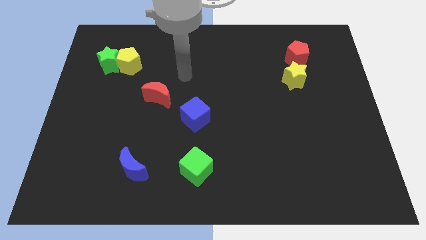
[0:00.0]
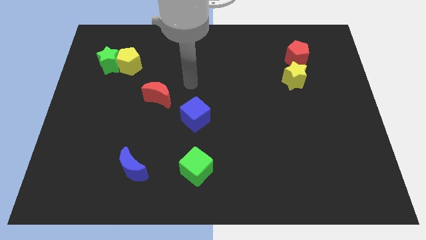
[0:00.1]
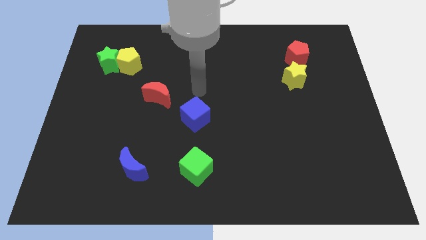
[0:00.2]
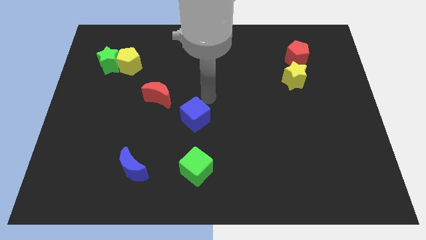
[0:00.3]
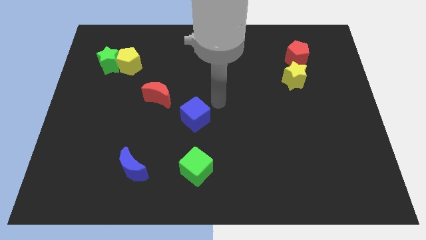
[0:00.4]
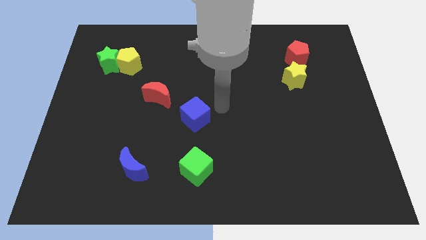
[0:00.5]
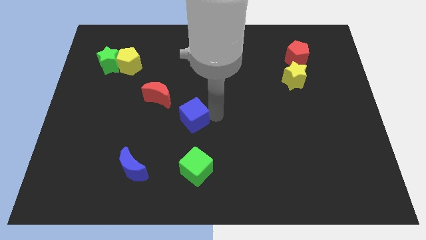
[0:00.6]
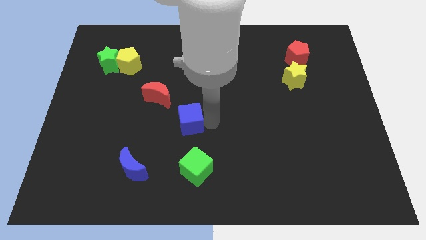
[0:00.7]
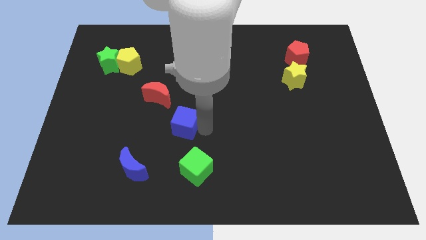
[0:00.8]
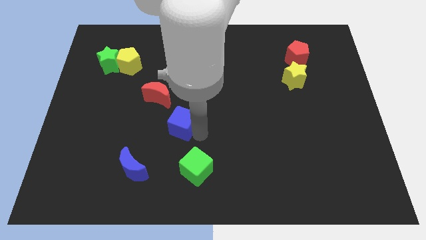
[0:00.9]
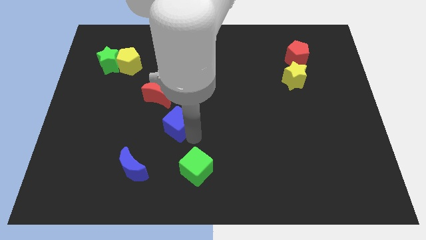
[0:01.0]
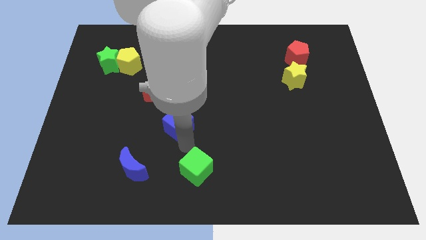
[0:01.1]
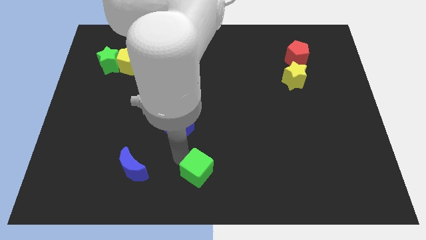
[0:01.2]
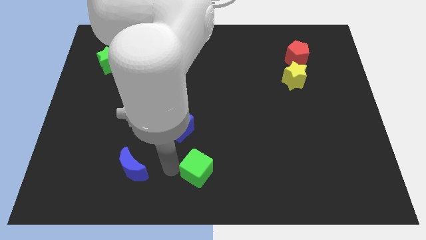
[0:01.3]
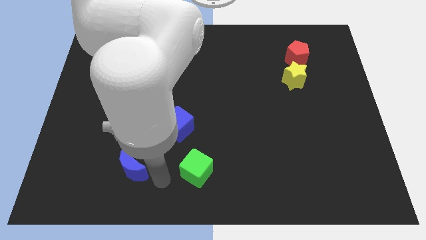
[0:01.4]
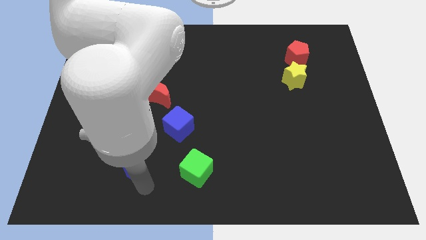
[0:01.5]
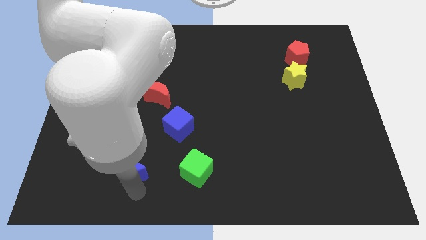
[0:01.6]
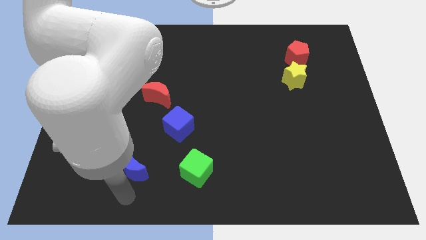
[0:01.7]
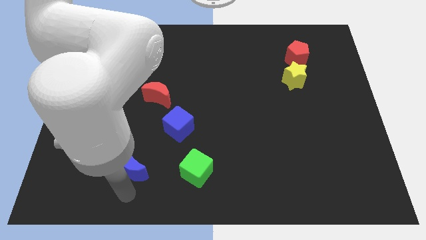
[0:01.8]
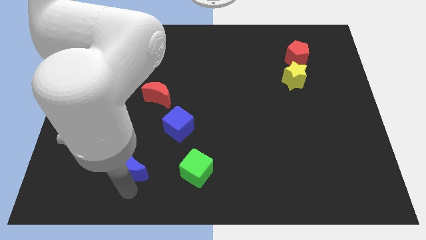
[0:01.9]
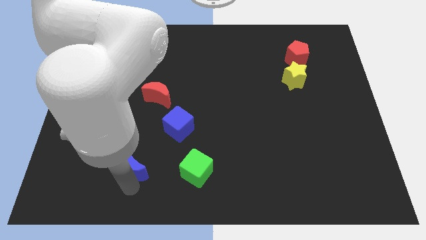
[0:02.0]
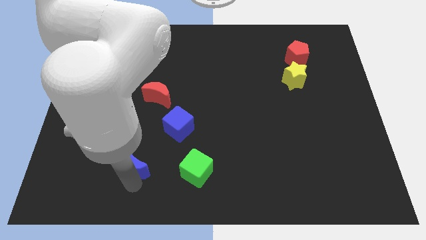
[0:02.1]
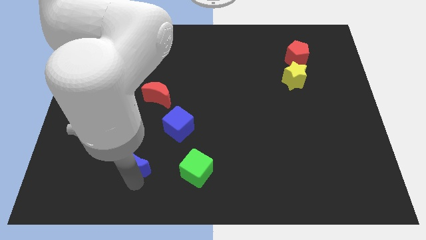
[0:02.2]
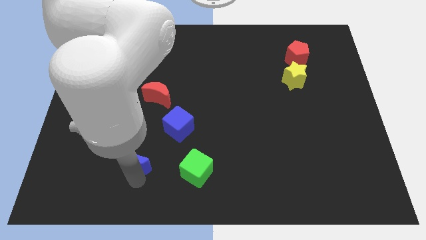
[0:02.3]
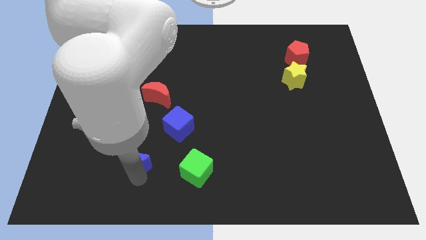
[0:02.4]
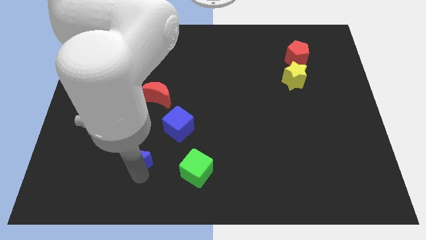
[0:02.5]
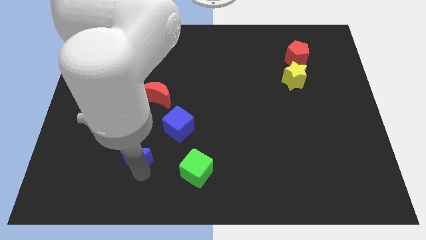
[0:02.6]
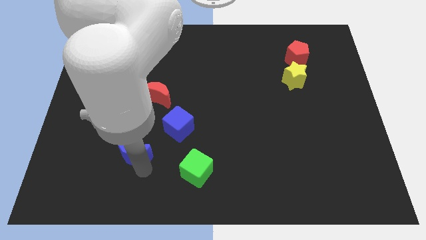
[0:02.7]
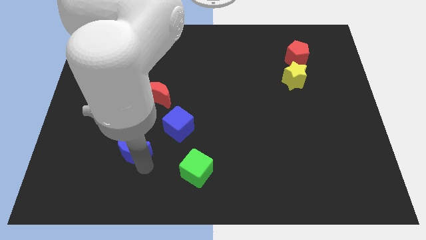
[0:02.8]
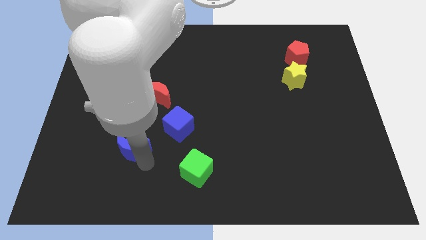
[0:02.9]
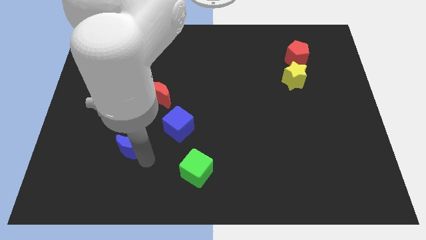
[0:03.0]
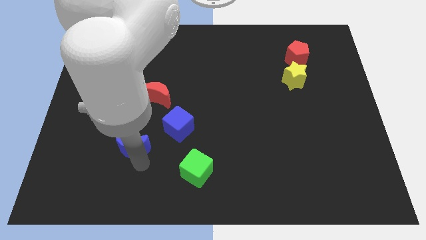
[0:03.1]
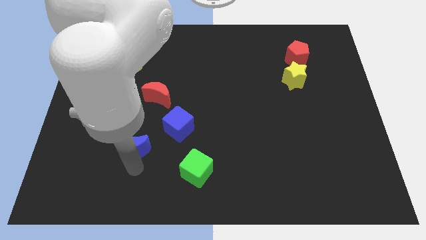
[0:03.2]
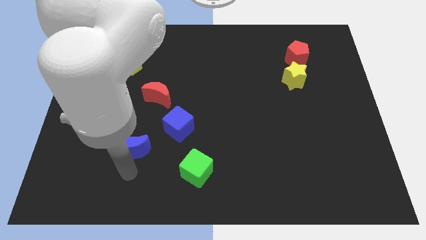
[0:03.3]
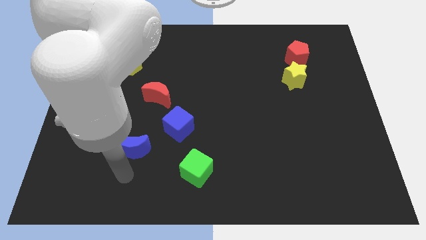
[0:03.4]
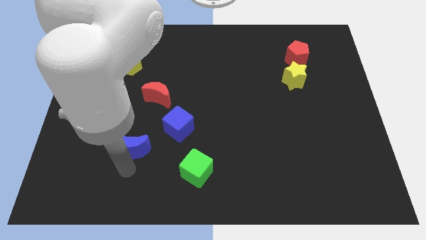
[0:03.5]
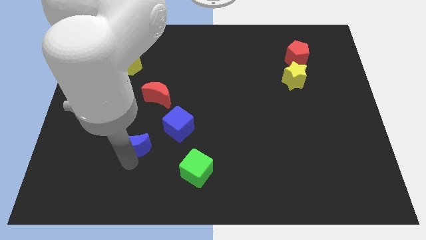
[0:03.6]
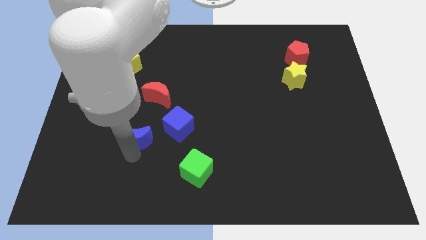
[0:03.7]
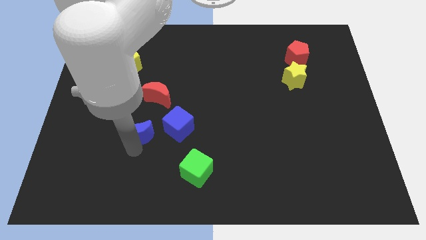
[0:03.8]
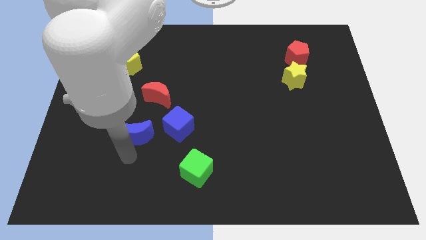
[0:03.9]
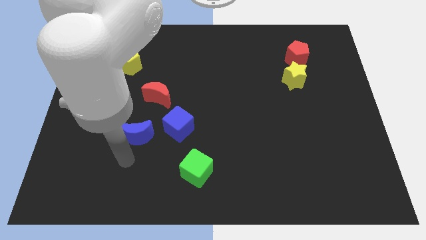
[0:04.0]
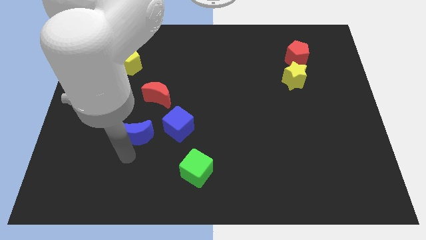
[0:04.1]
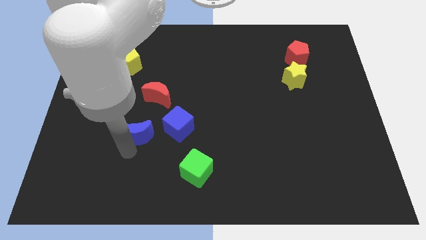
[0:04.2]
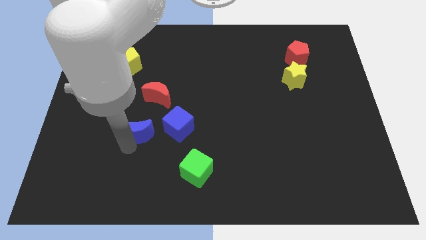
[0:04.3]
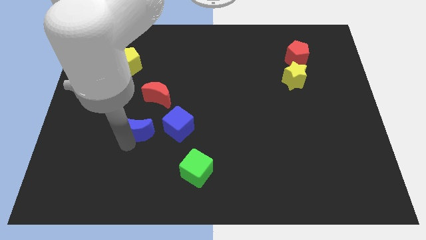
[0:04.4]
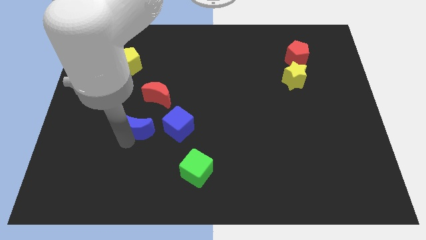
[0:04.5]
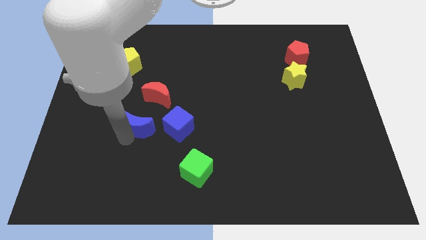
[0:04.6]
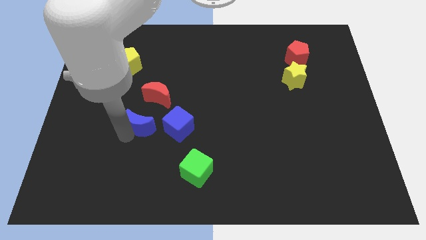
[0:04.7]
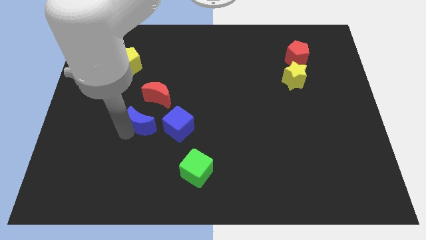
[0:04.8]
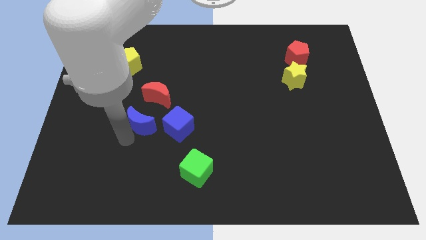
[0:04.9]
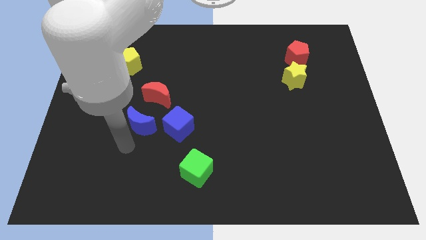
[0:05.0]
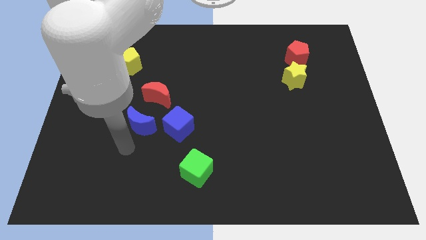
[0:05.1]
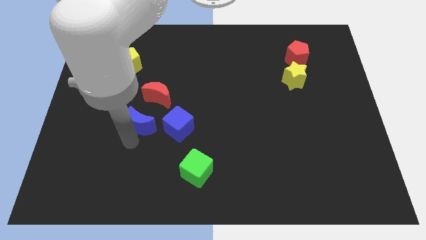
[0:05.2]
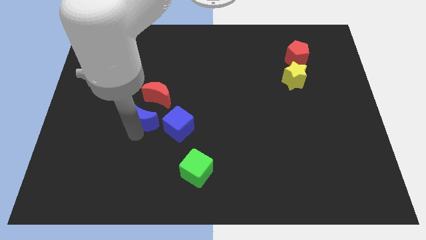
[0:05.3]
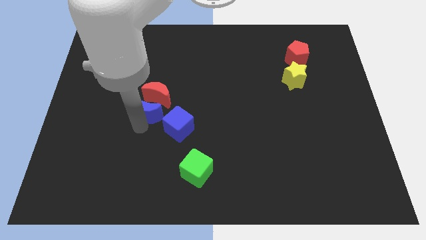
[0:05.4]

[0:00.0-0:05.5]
slide the blue moon close to the red moon

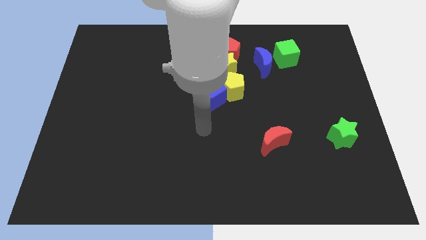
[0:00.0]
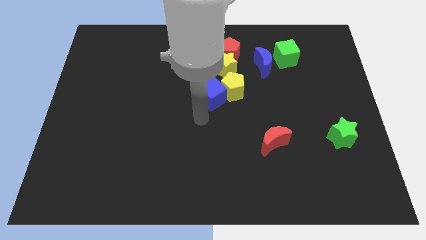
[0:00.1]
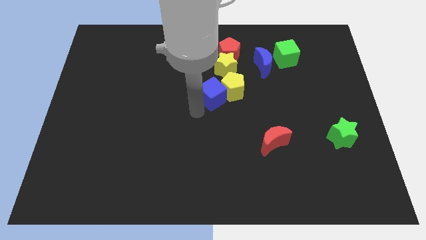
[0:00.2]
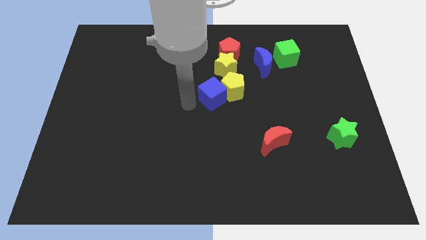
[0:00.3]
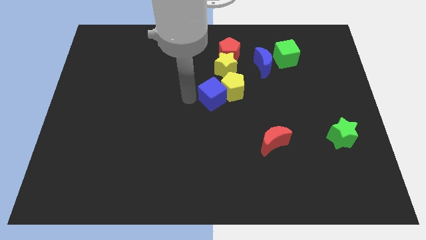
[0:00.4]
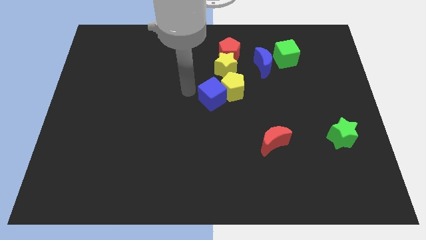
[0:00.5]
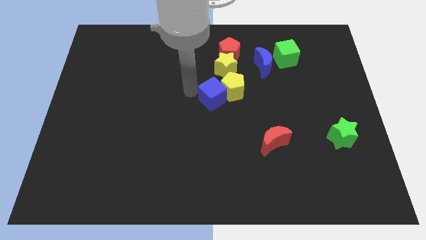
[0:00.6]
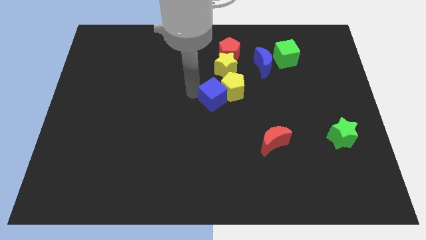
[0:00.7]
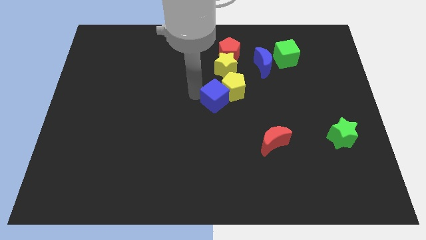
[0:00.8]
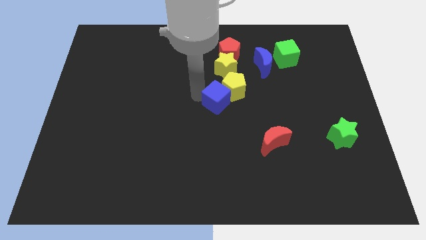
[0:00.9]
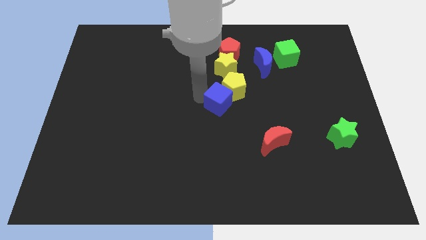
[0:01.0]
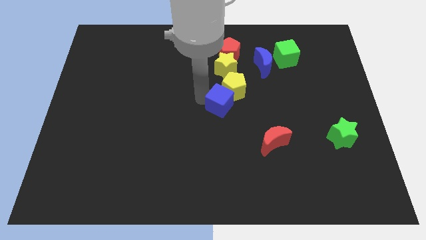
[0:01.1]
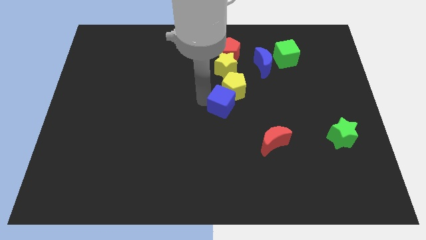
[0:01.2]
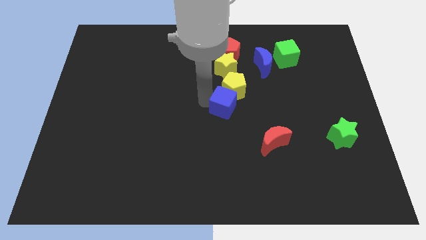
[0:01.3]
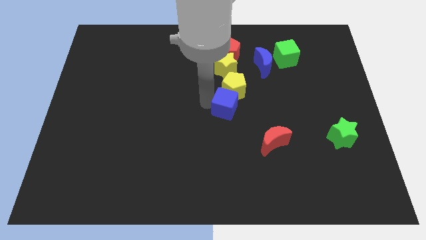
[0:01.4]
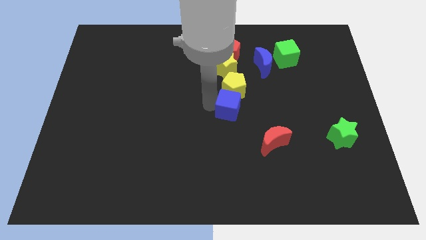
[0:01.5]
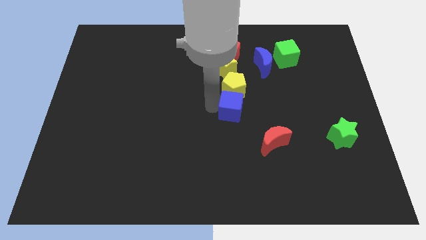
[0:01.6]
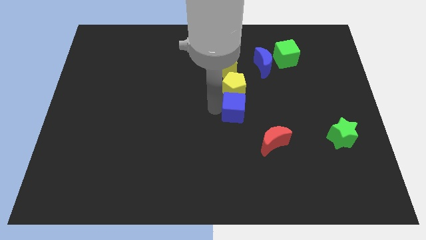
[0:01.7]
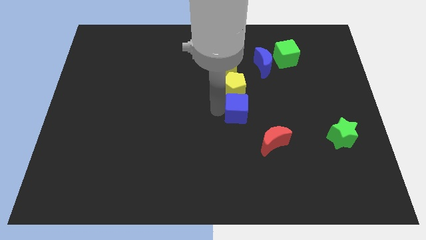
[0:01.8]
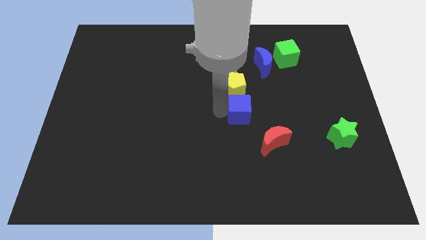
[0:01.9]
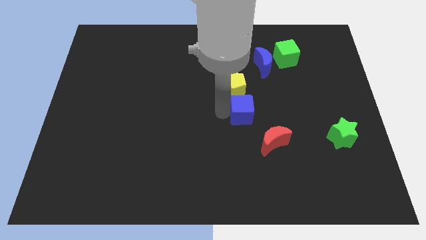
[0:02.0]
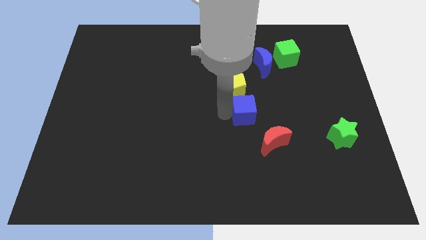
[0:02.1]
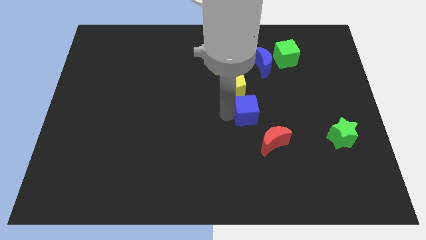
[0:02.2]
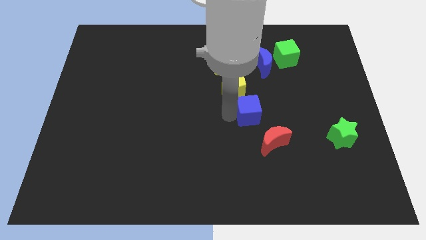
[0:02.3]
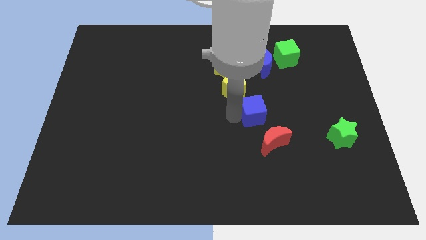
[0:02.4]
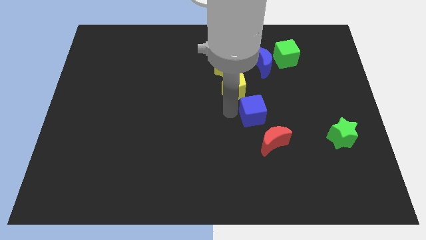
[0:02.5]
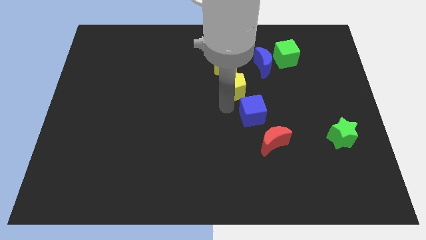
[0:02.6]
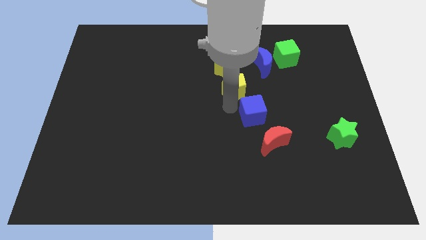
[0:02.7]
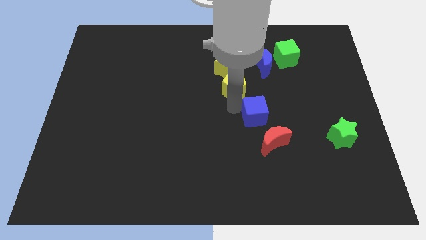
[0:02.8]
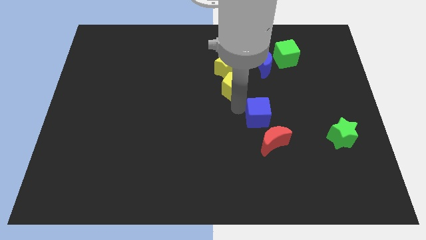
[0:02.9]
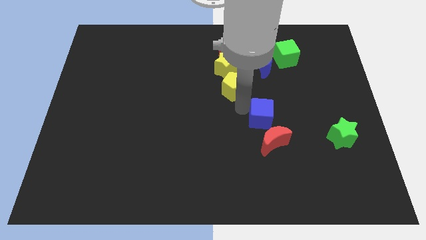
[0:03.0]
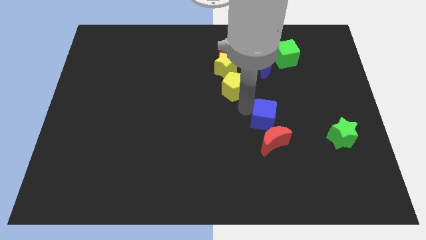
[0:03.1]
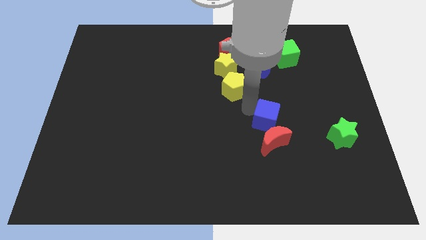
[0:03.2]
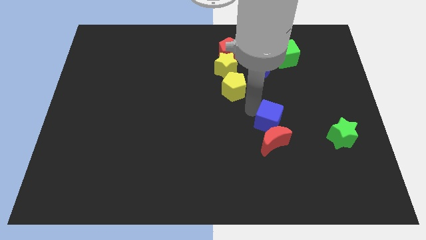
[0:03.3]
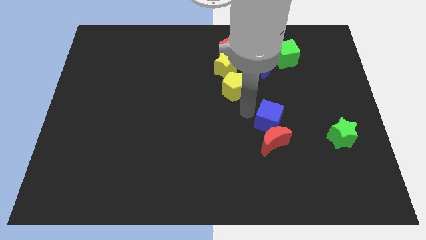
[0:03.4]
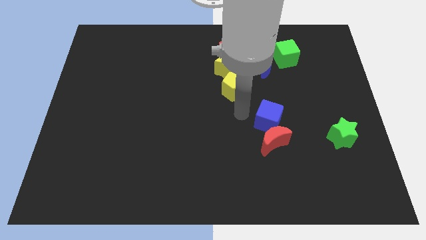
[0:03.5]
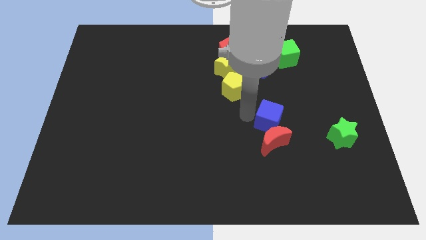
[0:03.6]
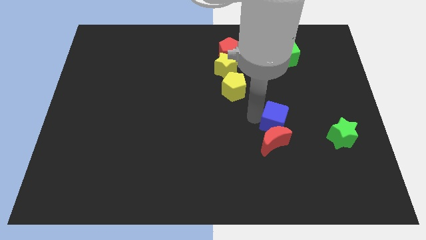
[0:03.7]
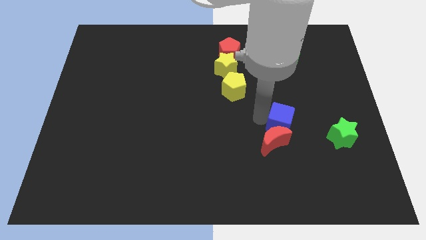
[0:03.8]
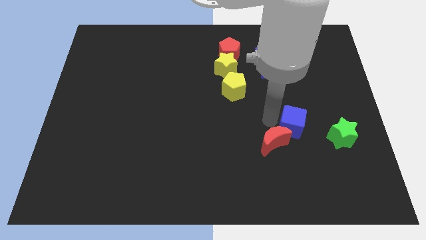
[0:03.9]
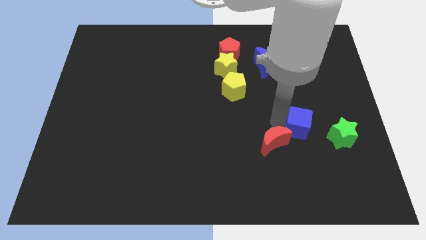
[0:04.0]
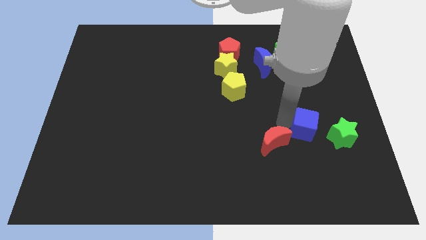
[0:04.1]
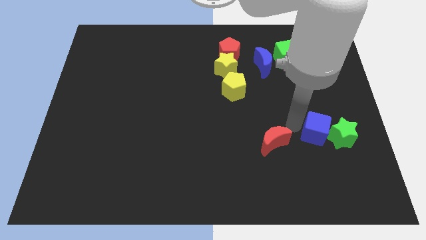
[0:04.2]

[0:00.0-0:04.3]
slide the blue cube to the green star
